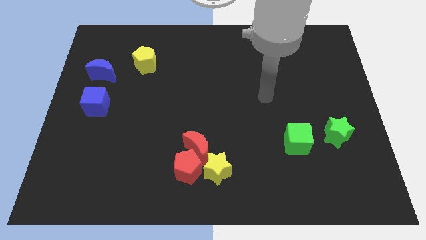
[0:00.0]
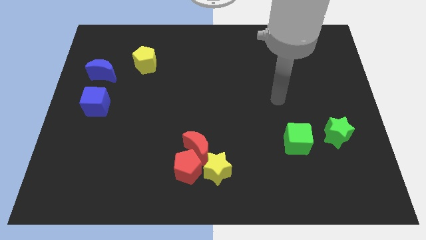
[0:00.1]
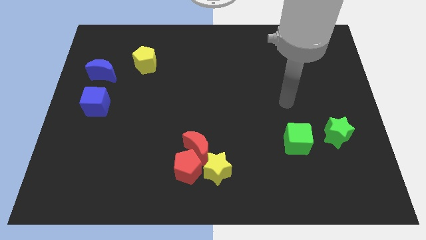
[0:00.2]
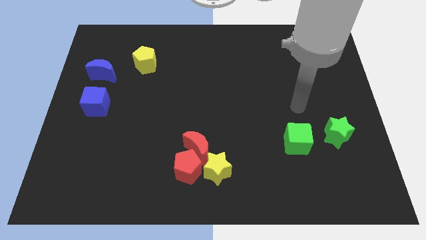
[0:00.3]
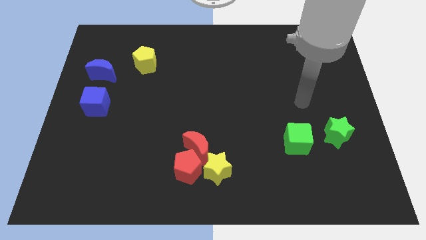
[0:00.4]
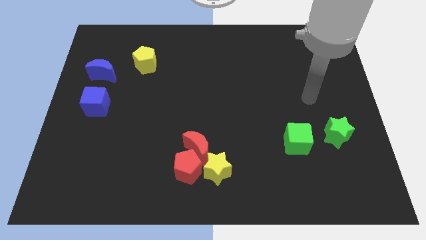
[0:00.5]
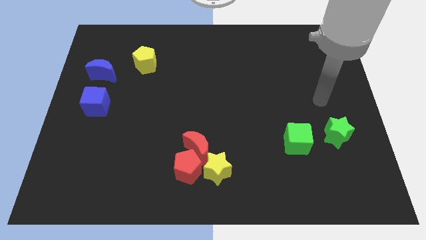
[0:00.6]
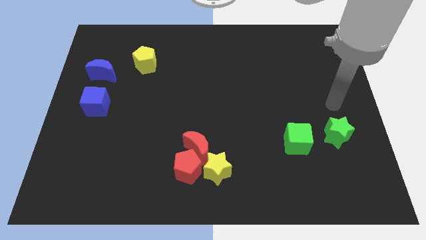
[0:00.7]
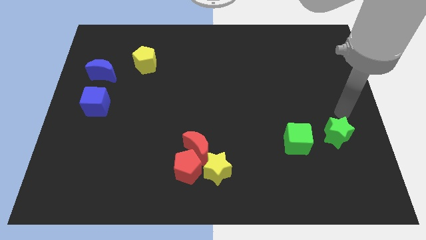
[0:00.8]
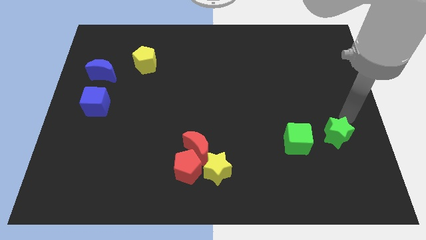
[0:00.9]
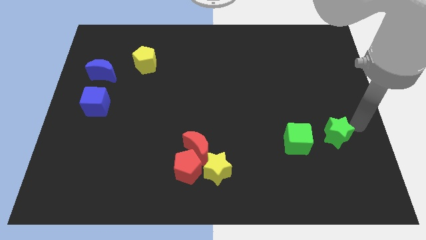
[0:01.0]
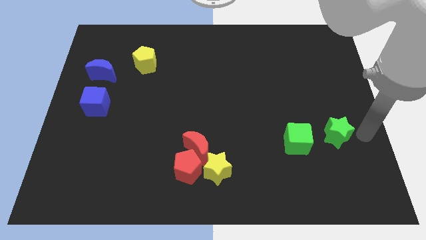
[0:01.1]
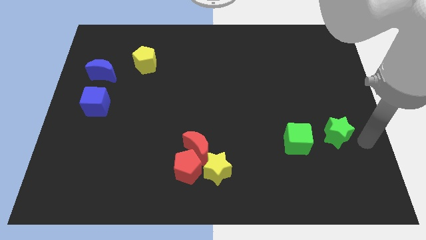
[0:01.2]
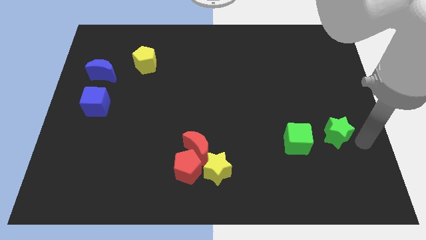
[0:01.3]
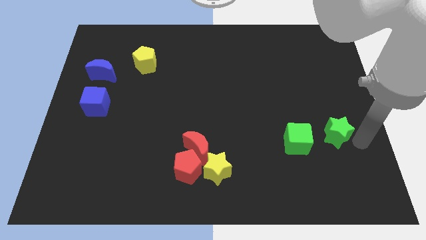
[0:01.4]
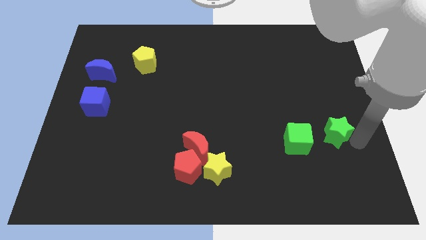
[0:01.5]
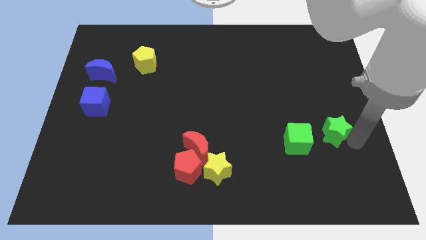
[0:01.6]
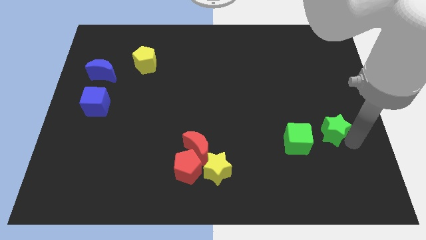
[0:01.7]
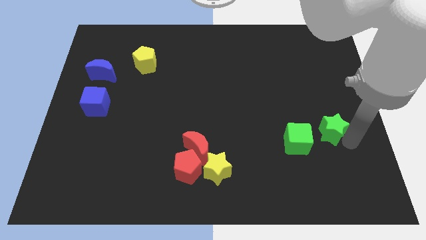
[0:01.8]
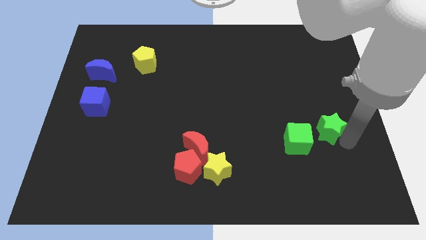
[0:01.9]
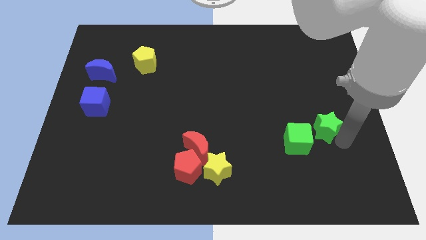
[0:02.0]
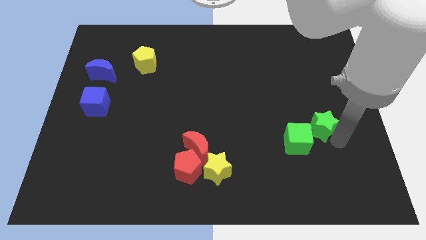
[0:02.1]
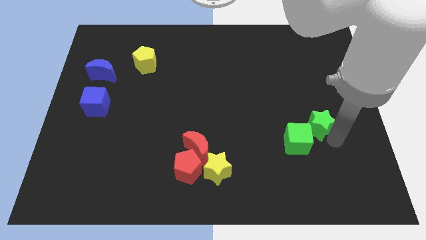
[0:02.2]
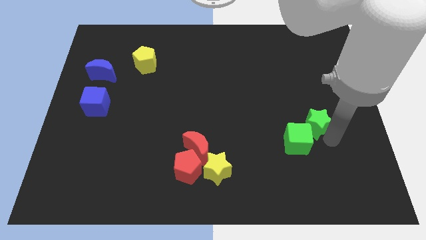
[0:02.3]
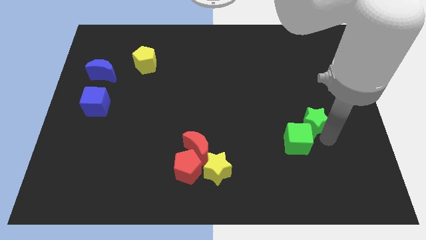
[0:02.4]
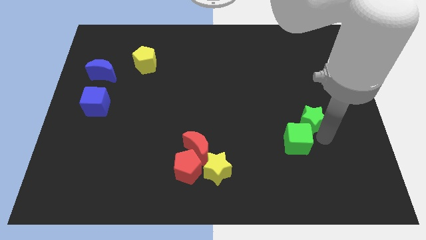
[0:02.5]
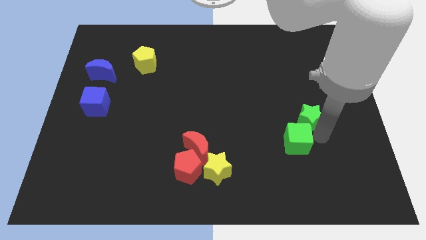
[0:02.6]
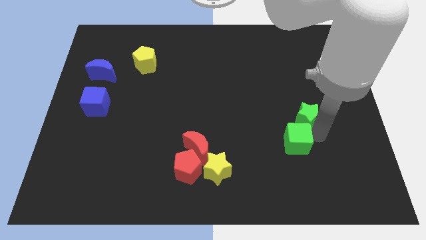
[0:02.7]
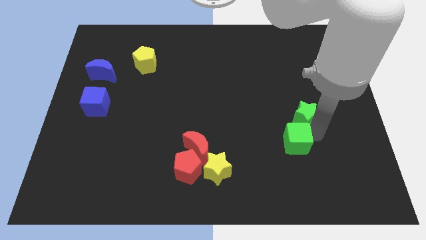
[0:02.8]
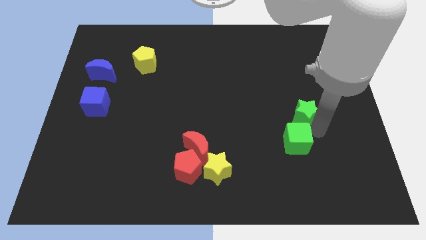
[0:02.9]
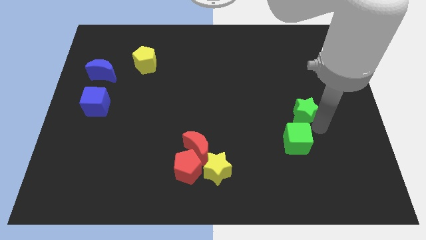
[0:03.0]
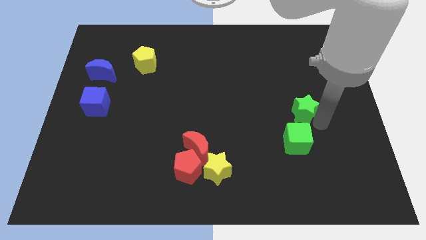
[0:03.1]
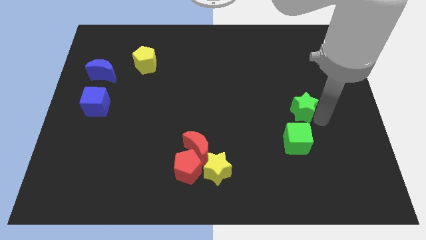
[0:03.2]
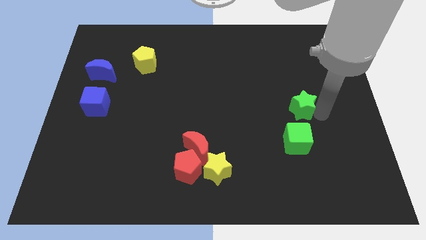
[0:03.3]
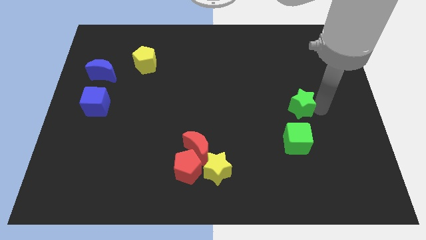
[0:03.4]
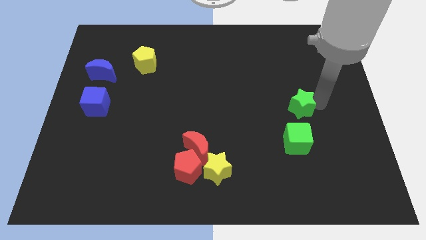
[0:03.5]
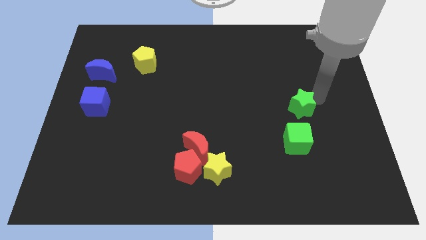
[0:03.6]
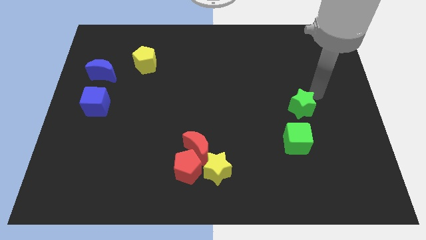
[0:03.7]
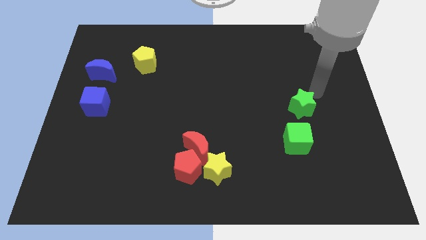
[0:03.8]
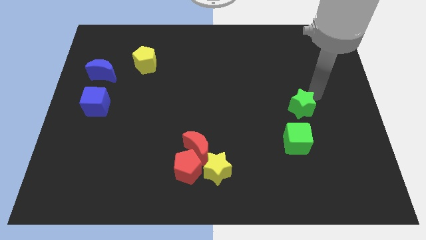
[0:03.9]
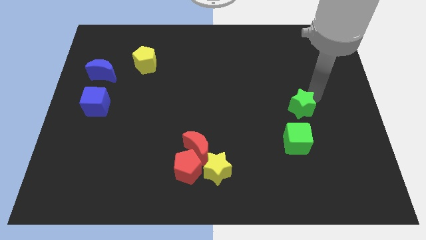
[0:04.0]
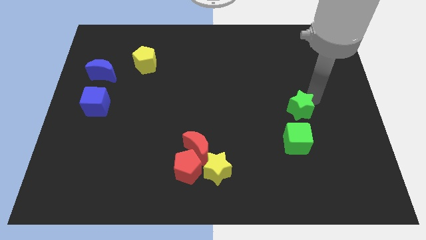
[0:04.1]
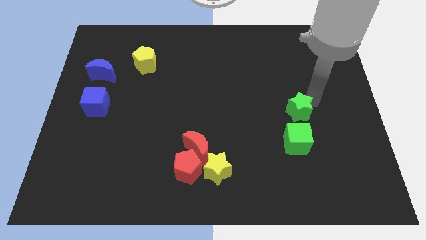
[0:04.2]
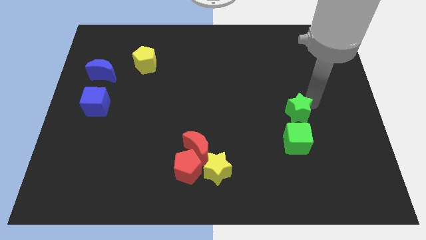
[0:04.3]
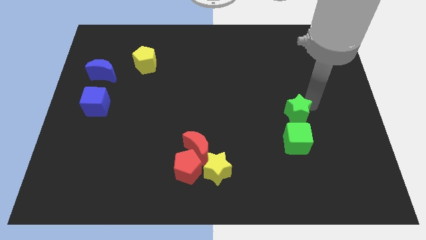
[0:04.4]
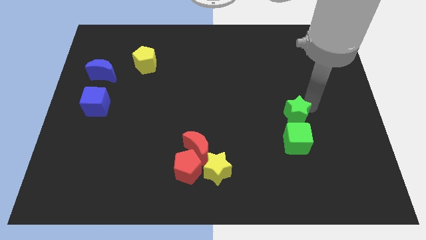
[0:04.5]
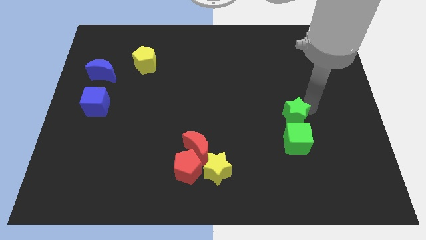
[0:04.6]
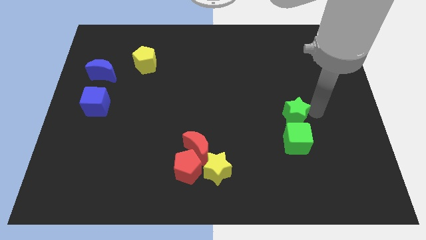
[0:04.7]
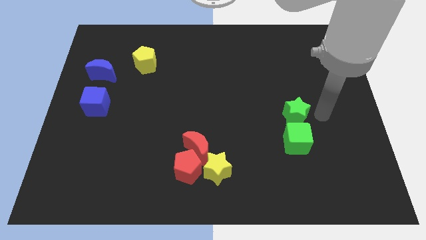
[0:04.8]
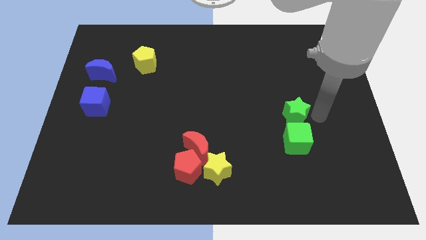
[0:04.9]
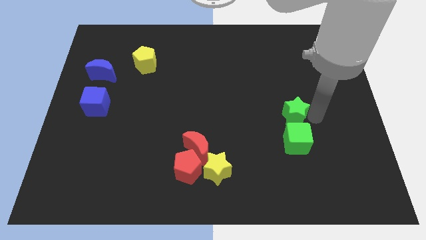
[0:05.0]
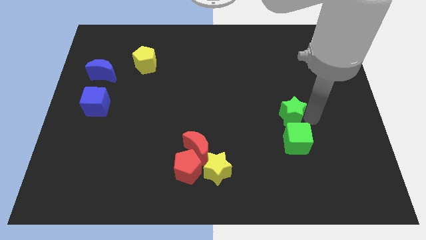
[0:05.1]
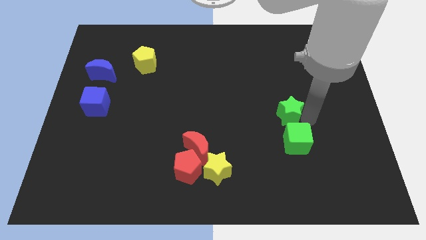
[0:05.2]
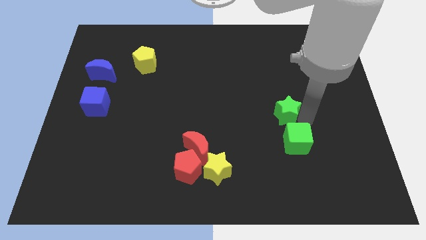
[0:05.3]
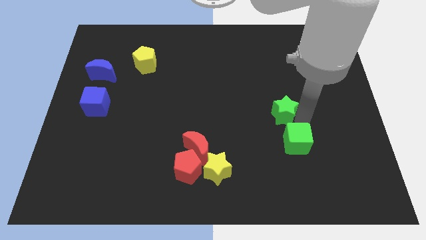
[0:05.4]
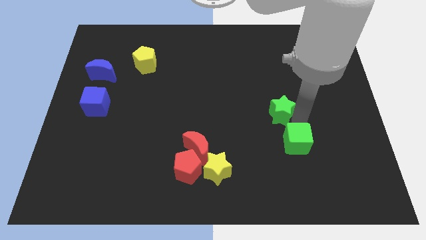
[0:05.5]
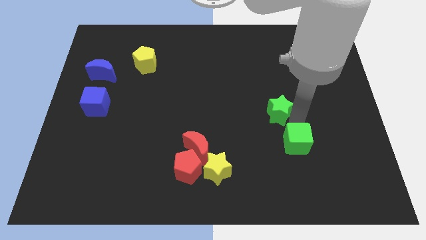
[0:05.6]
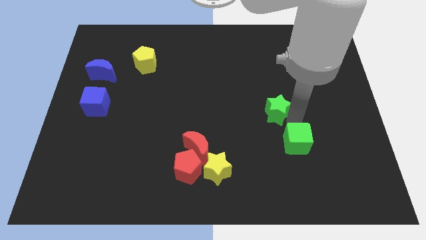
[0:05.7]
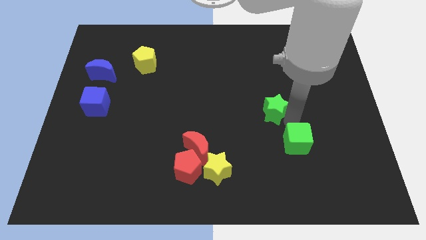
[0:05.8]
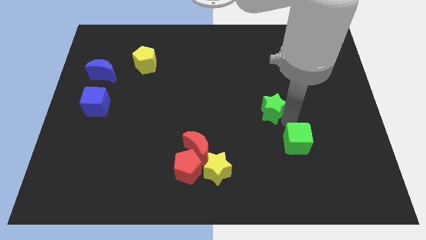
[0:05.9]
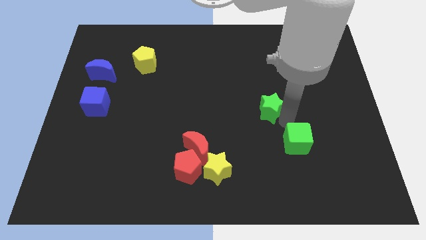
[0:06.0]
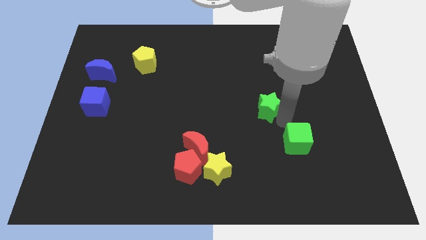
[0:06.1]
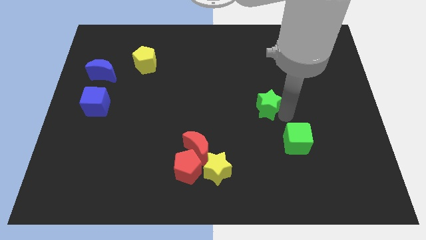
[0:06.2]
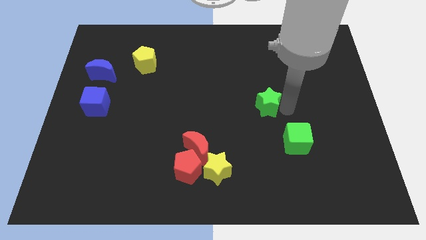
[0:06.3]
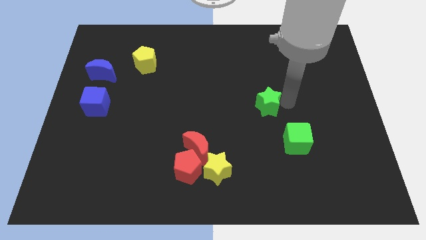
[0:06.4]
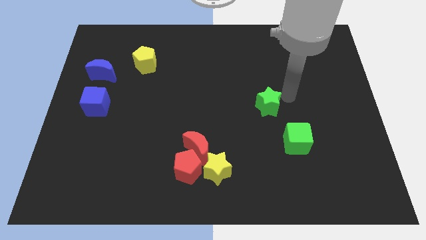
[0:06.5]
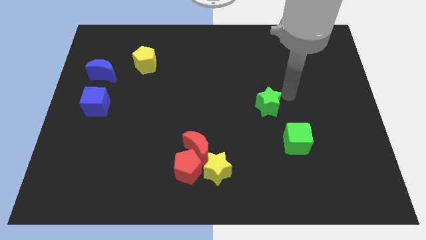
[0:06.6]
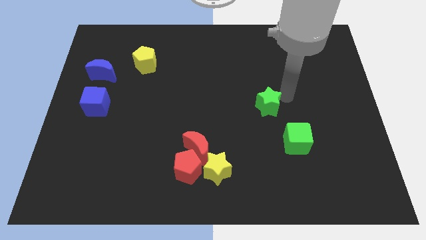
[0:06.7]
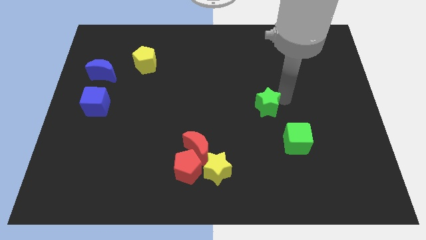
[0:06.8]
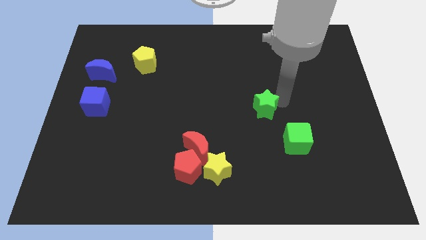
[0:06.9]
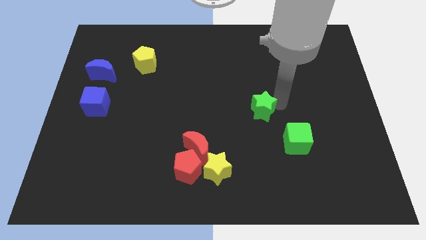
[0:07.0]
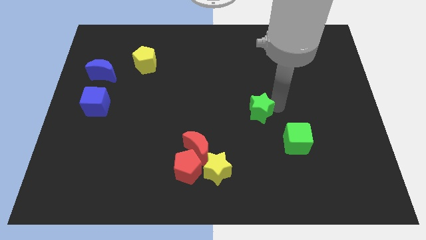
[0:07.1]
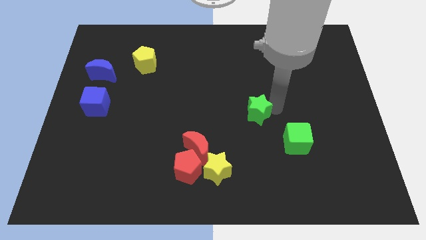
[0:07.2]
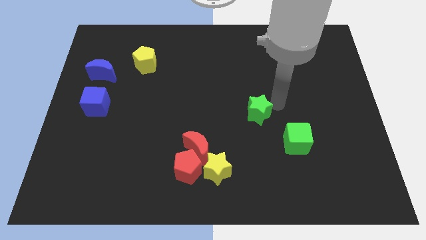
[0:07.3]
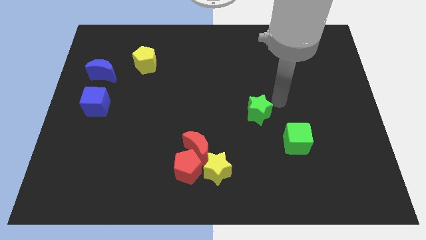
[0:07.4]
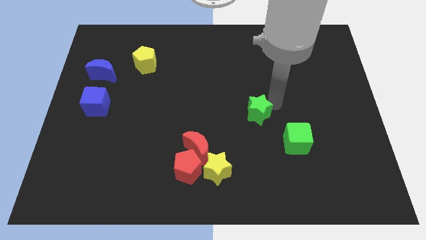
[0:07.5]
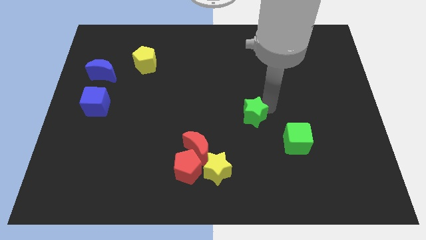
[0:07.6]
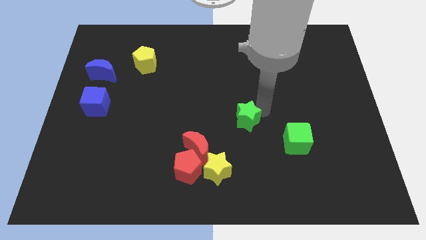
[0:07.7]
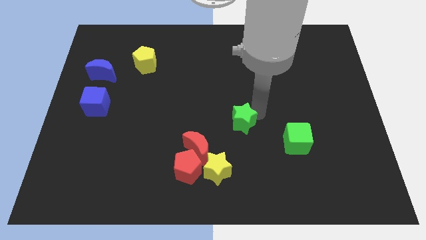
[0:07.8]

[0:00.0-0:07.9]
slide the green star left

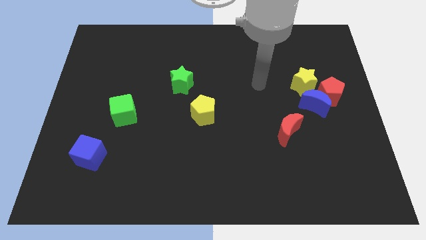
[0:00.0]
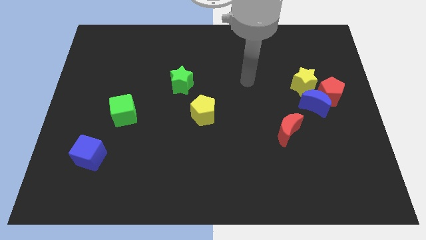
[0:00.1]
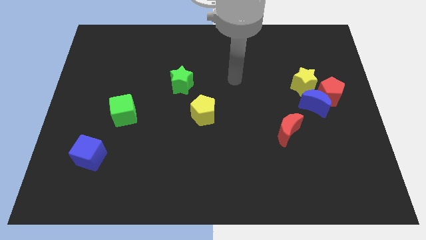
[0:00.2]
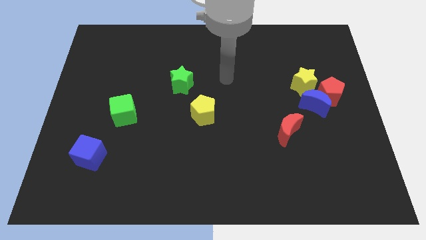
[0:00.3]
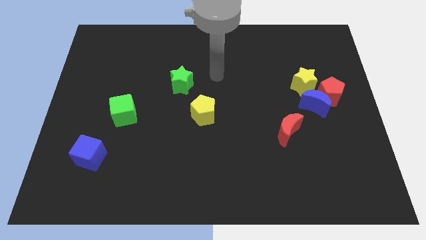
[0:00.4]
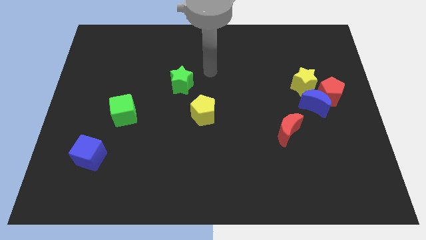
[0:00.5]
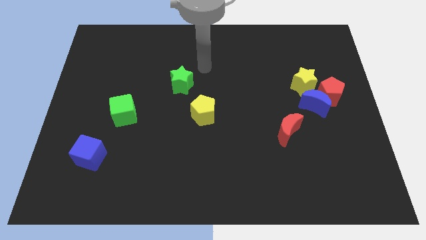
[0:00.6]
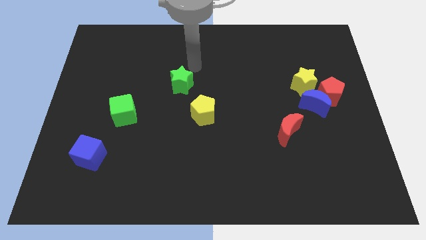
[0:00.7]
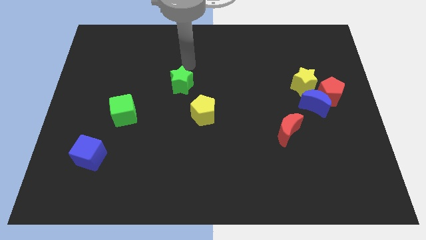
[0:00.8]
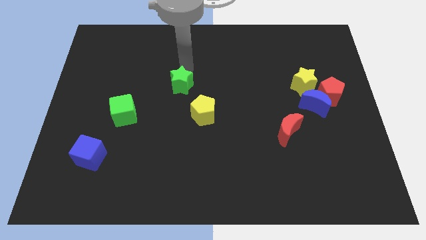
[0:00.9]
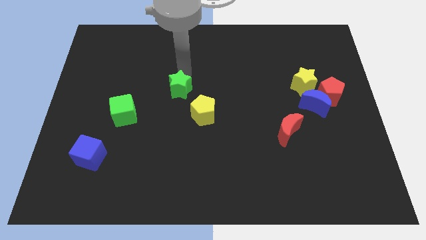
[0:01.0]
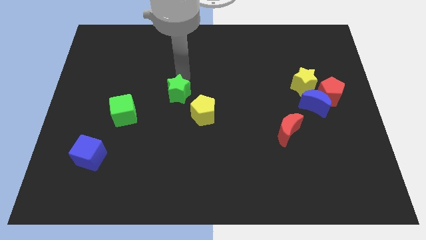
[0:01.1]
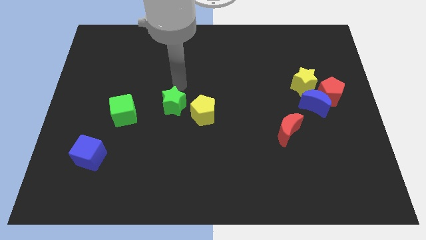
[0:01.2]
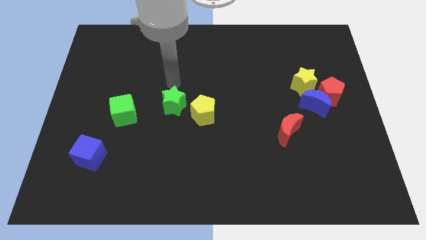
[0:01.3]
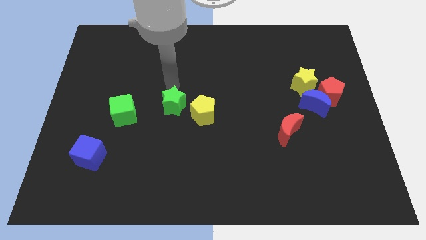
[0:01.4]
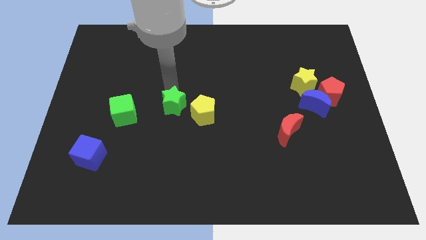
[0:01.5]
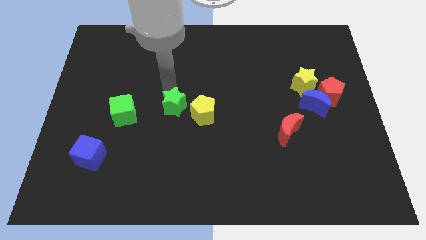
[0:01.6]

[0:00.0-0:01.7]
slide the green star a little bit down
